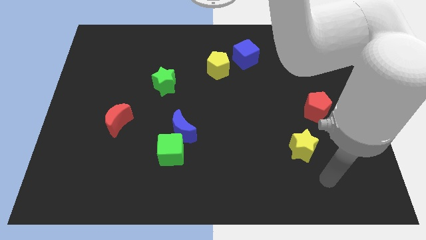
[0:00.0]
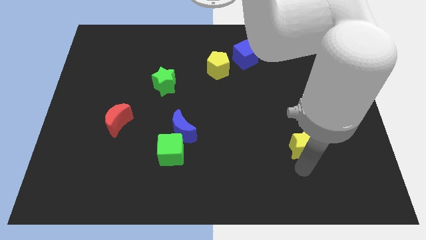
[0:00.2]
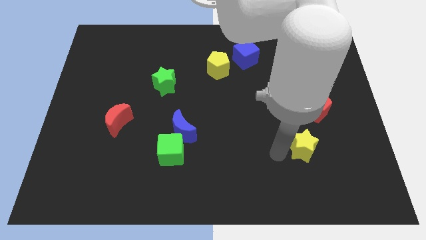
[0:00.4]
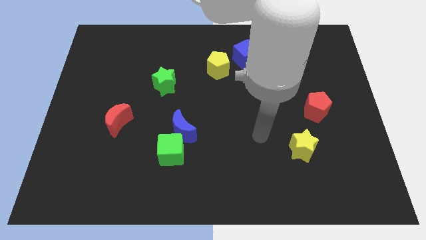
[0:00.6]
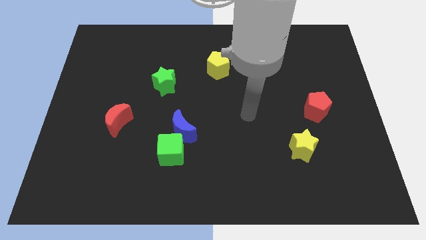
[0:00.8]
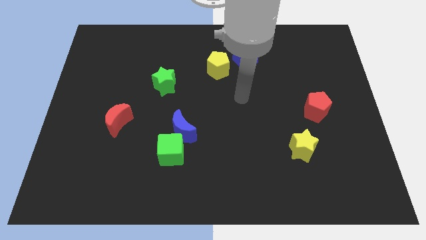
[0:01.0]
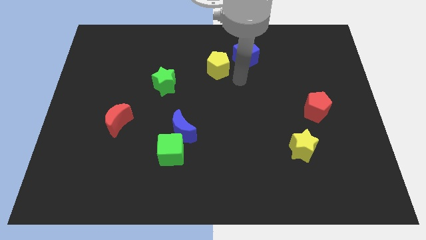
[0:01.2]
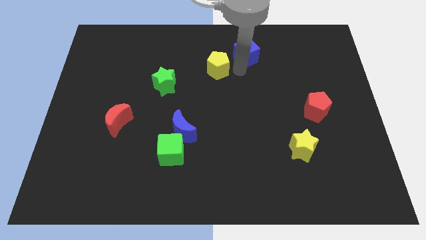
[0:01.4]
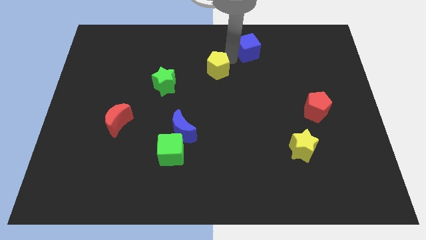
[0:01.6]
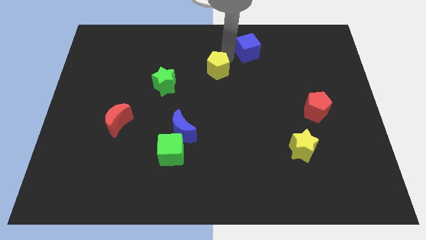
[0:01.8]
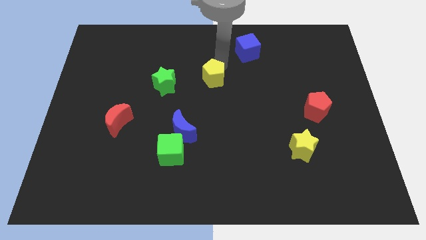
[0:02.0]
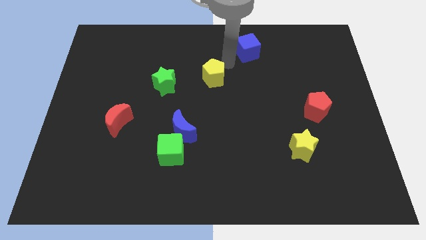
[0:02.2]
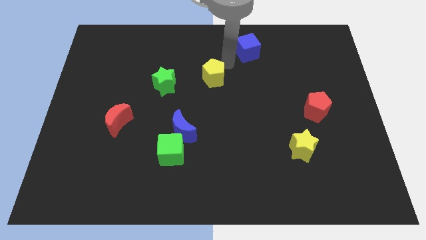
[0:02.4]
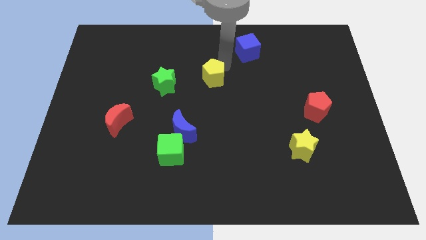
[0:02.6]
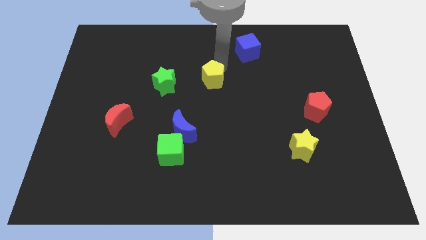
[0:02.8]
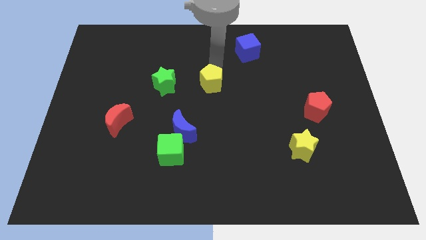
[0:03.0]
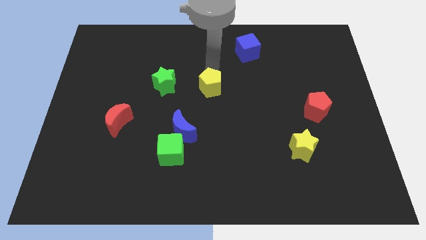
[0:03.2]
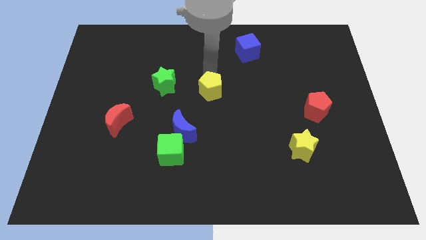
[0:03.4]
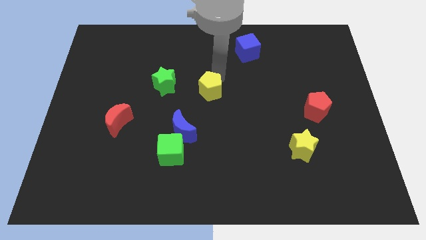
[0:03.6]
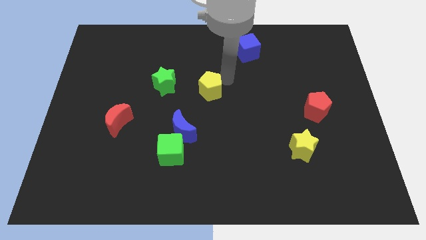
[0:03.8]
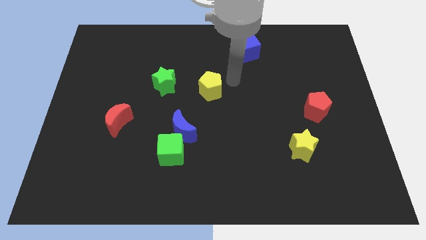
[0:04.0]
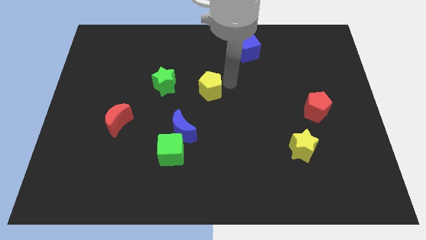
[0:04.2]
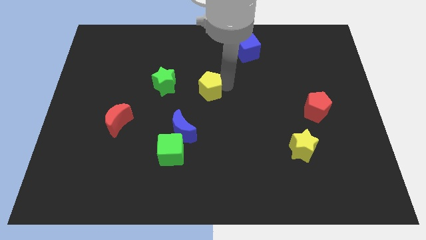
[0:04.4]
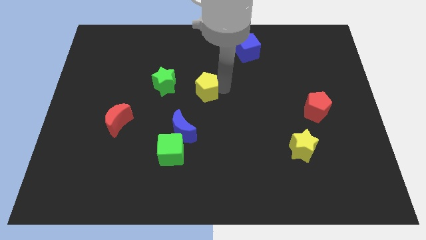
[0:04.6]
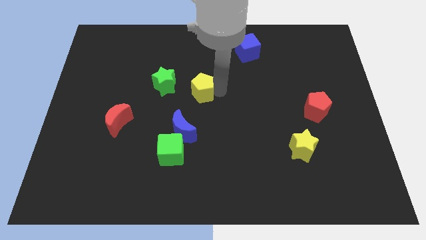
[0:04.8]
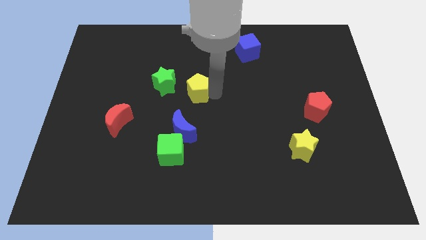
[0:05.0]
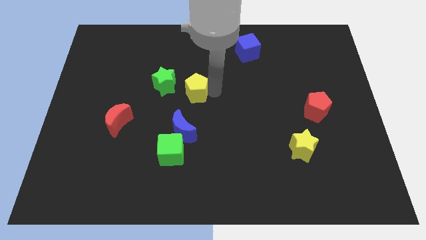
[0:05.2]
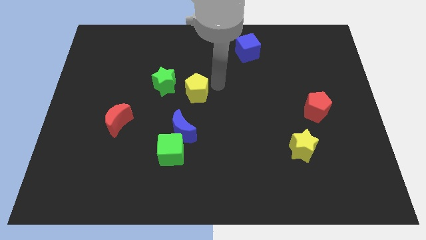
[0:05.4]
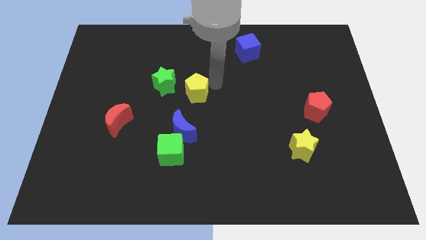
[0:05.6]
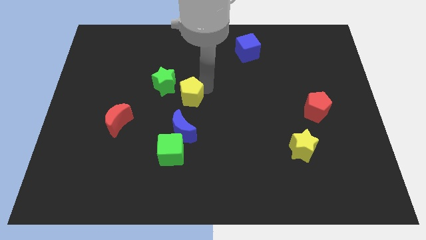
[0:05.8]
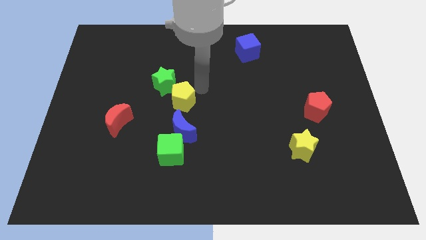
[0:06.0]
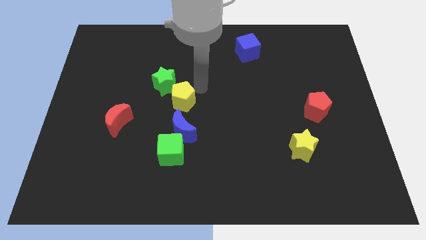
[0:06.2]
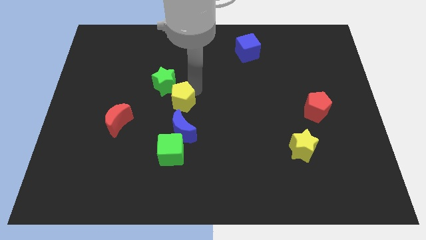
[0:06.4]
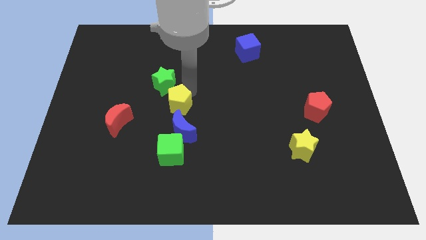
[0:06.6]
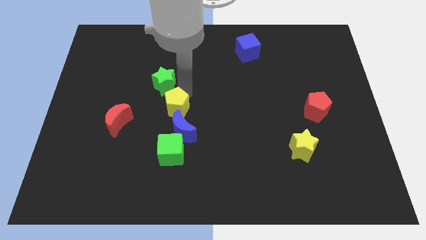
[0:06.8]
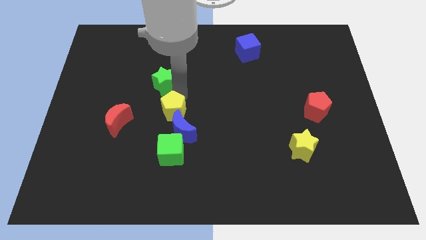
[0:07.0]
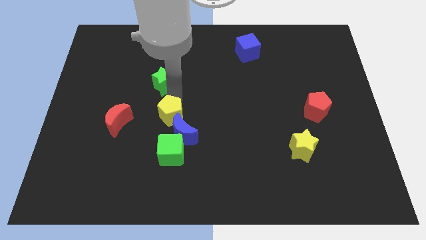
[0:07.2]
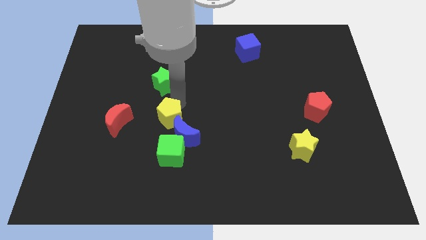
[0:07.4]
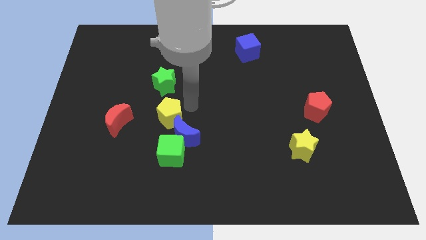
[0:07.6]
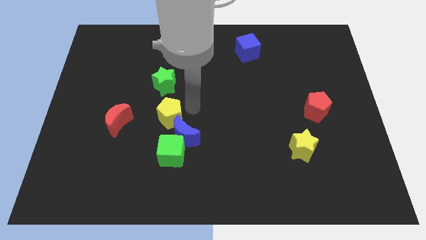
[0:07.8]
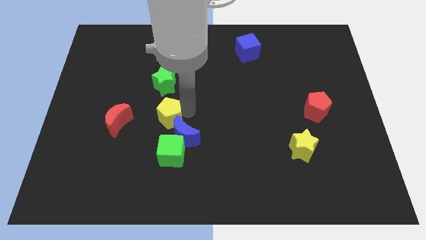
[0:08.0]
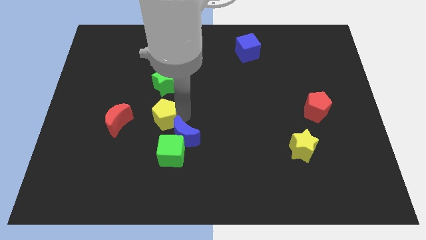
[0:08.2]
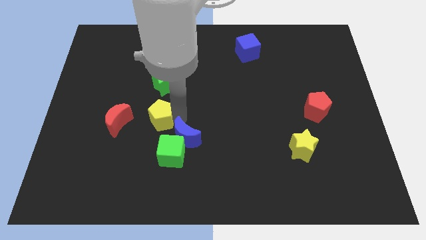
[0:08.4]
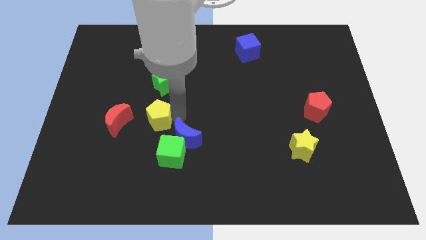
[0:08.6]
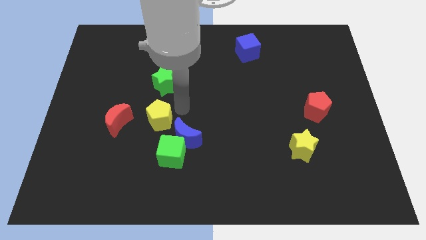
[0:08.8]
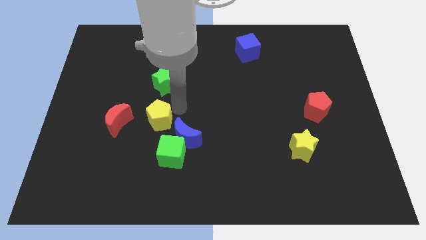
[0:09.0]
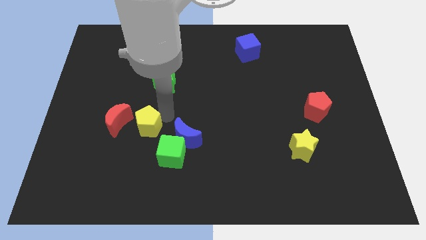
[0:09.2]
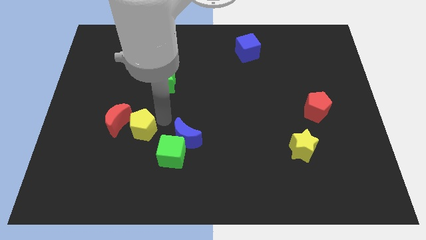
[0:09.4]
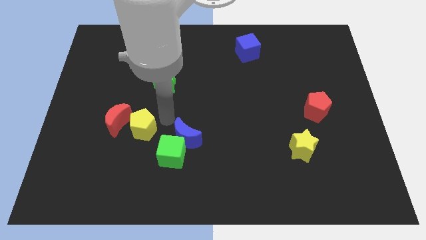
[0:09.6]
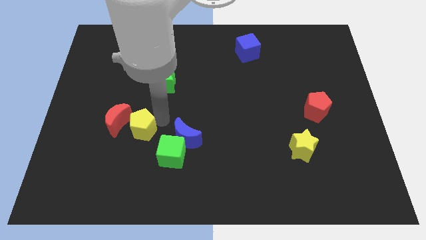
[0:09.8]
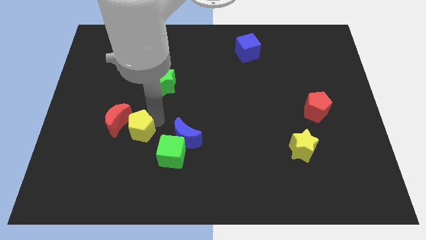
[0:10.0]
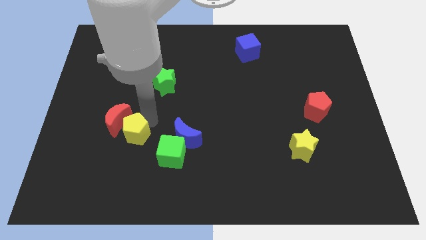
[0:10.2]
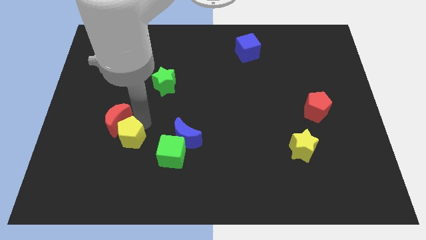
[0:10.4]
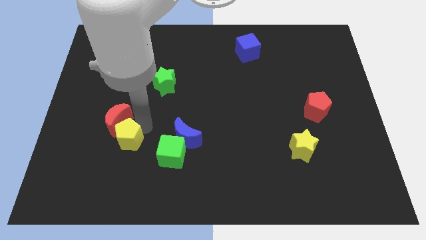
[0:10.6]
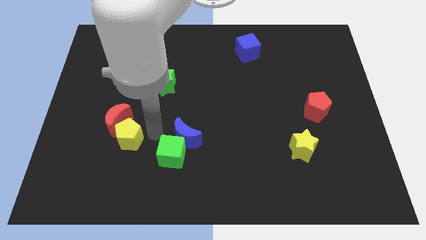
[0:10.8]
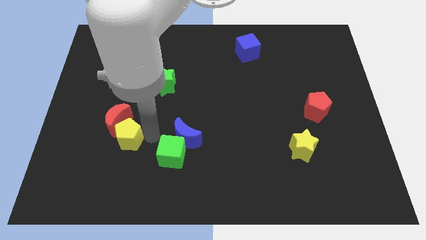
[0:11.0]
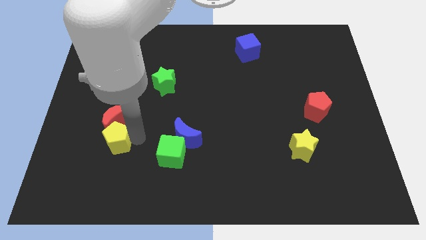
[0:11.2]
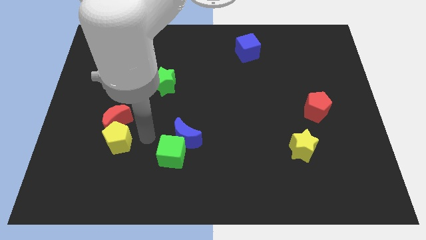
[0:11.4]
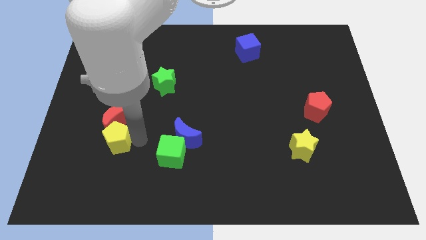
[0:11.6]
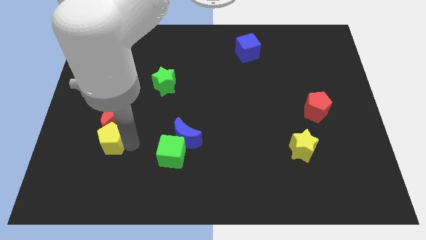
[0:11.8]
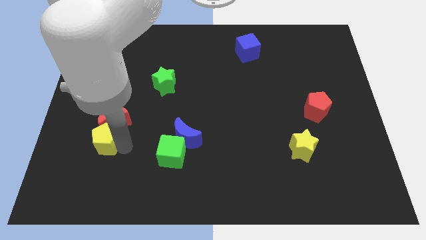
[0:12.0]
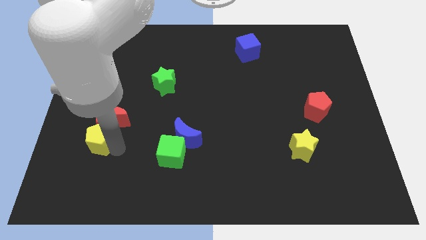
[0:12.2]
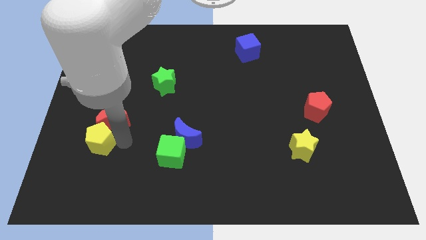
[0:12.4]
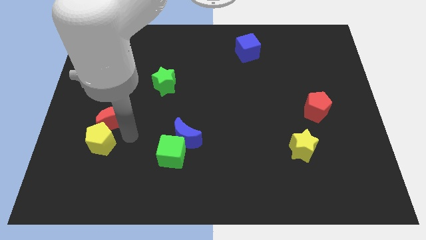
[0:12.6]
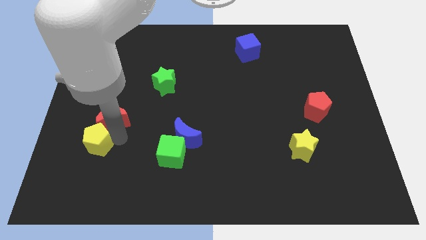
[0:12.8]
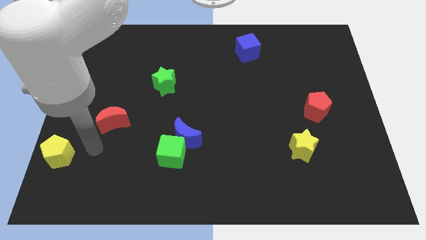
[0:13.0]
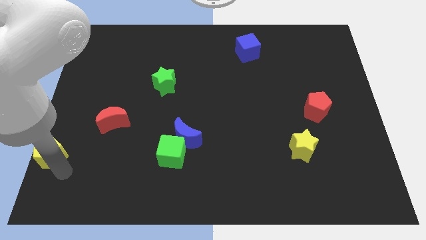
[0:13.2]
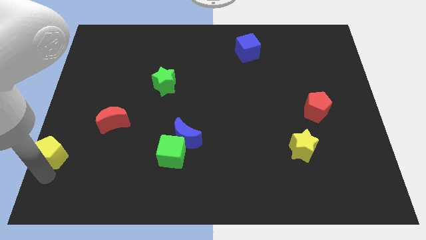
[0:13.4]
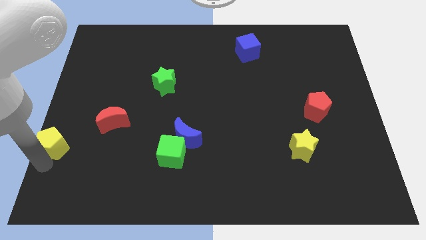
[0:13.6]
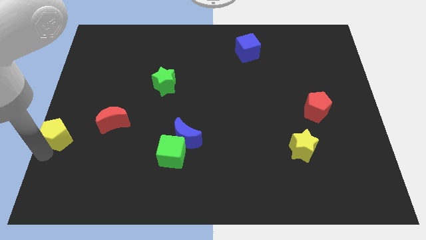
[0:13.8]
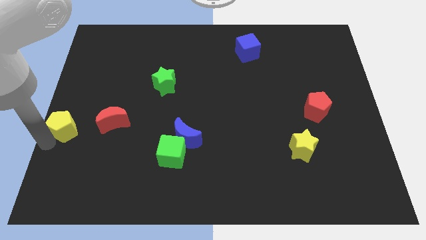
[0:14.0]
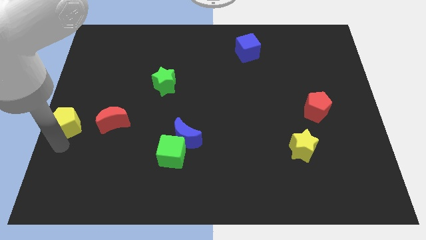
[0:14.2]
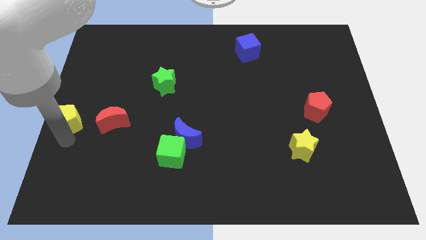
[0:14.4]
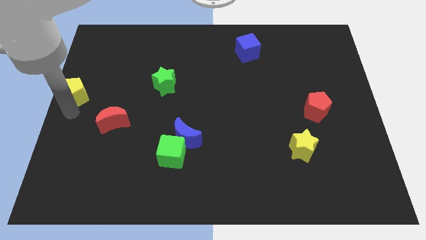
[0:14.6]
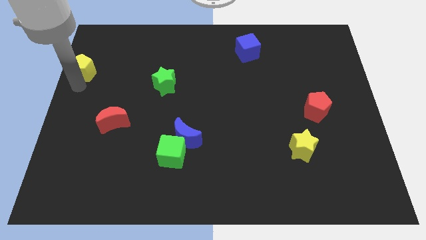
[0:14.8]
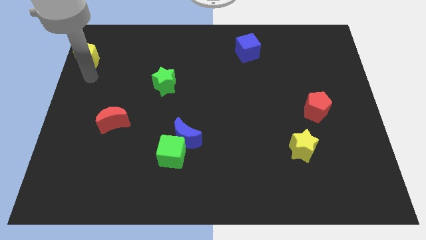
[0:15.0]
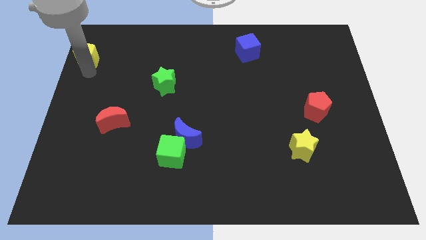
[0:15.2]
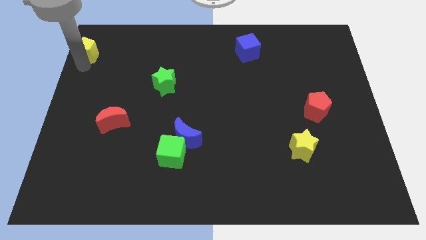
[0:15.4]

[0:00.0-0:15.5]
put the yellow pentagon to the top left corner
